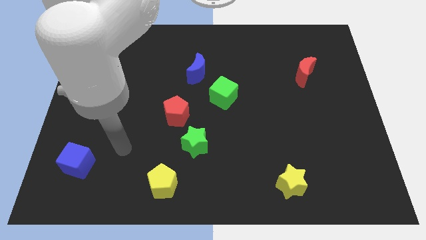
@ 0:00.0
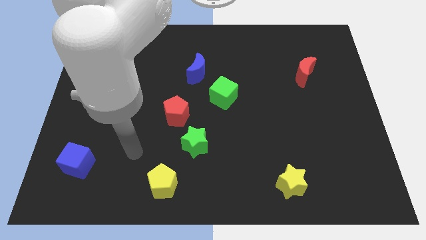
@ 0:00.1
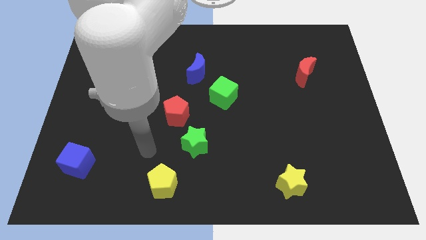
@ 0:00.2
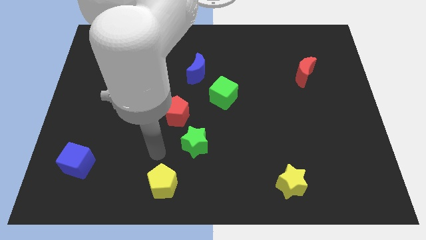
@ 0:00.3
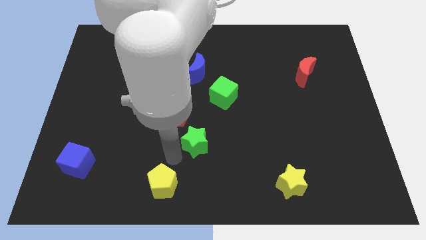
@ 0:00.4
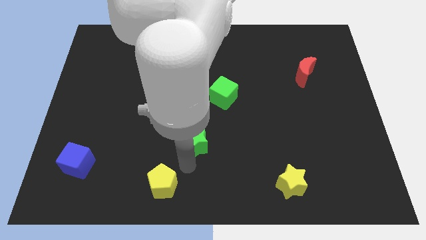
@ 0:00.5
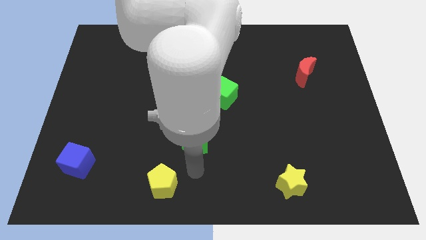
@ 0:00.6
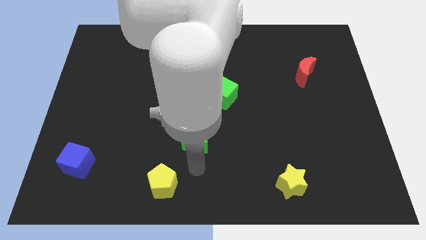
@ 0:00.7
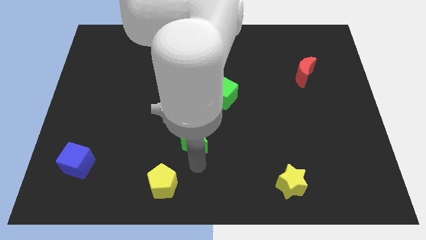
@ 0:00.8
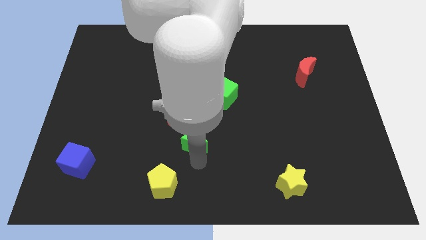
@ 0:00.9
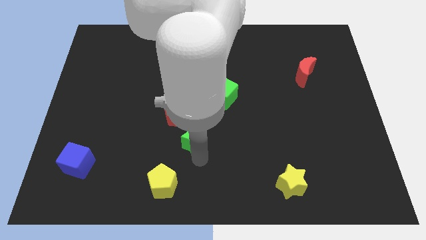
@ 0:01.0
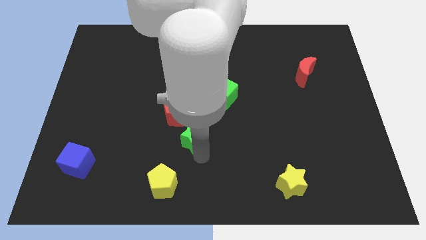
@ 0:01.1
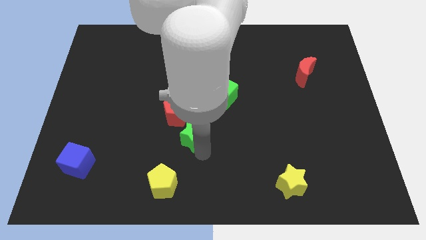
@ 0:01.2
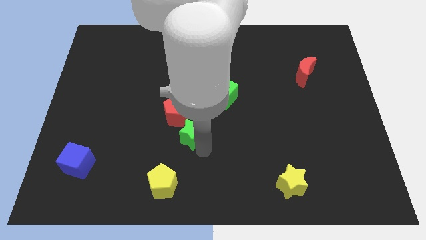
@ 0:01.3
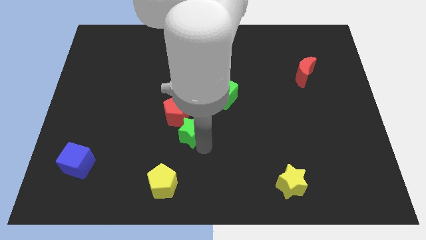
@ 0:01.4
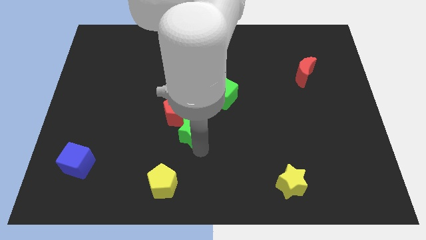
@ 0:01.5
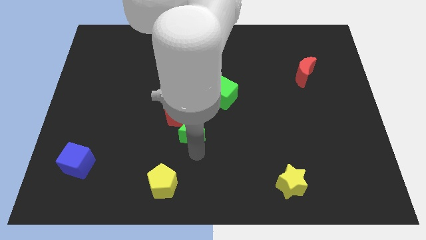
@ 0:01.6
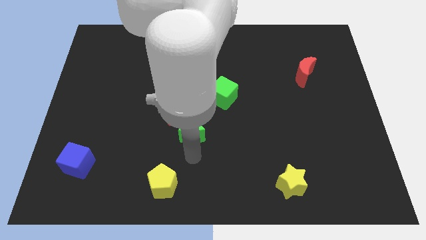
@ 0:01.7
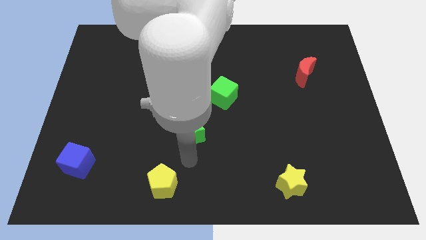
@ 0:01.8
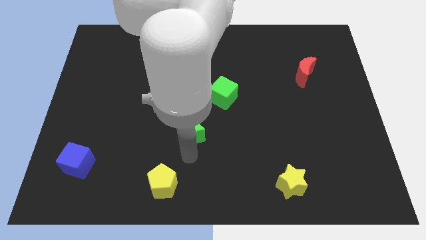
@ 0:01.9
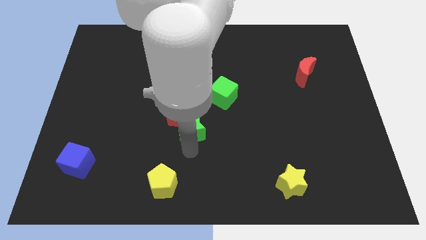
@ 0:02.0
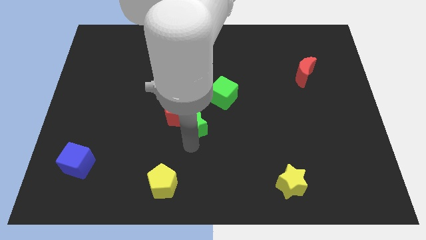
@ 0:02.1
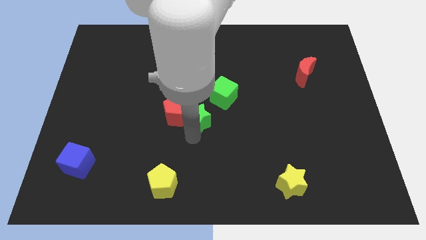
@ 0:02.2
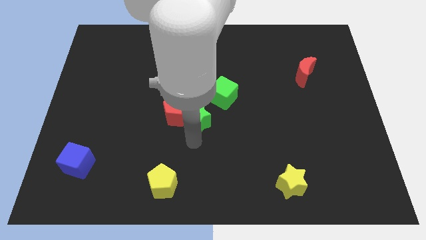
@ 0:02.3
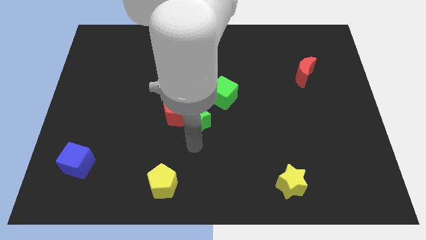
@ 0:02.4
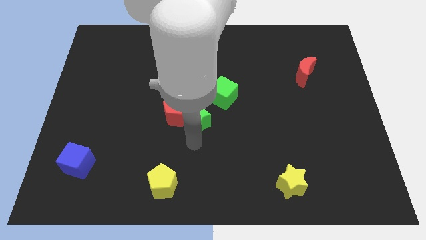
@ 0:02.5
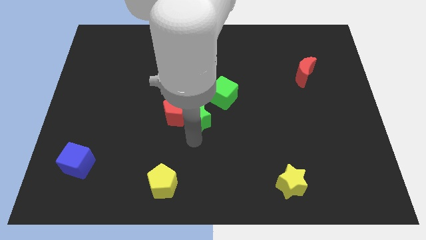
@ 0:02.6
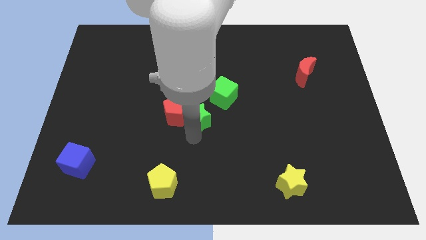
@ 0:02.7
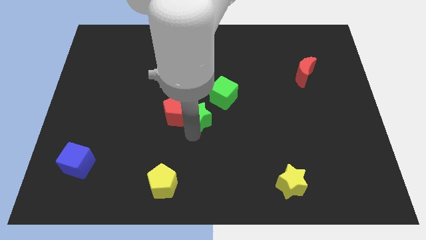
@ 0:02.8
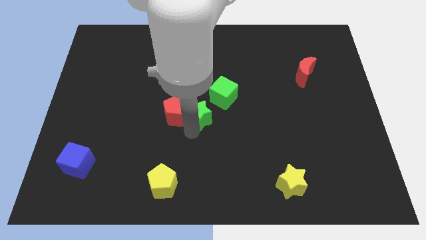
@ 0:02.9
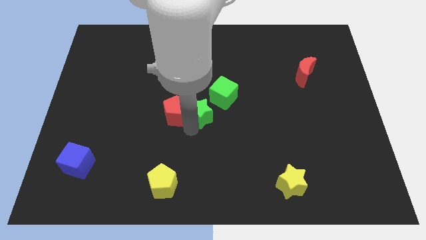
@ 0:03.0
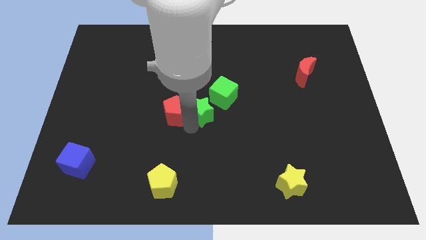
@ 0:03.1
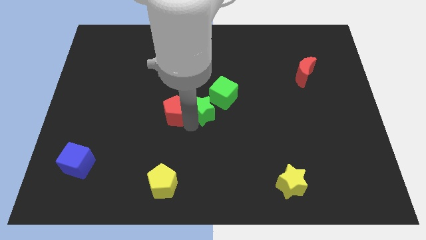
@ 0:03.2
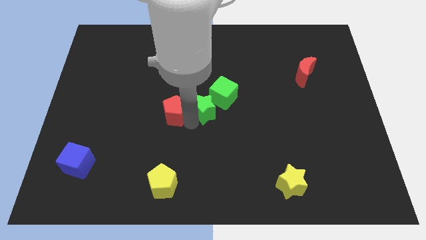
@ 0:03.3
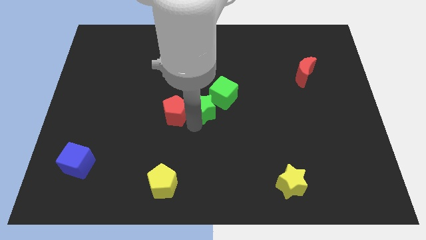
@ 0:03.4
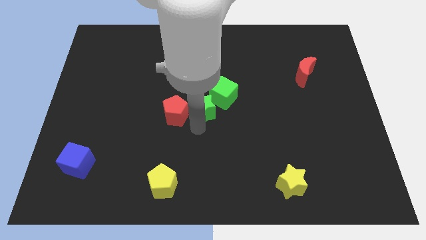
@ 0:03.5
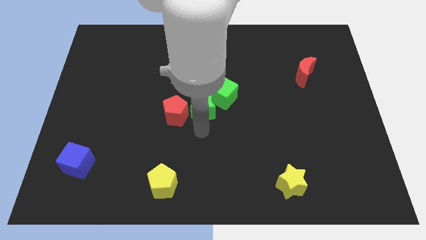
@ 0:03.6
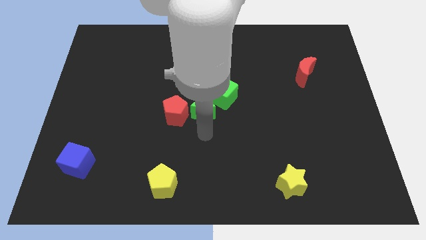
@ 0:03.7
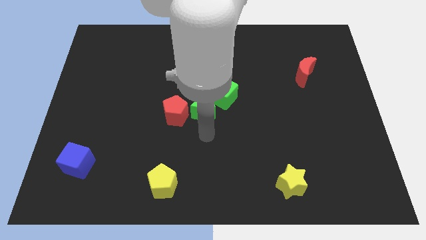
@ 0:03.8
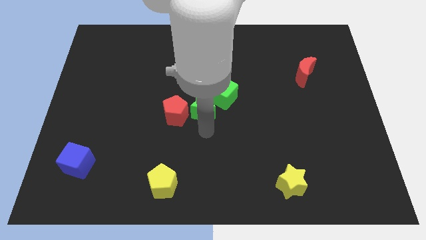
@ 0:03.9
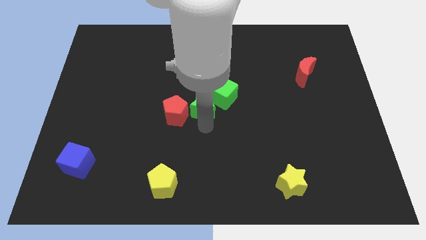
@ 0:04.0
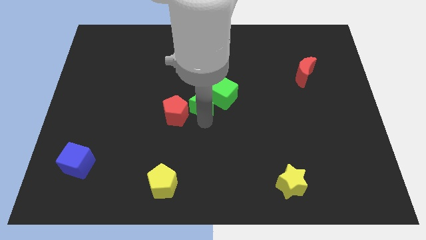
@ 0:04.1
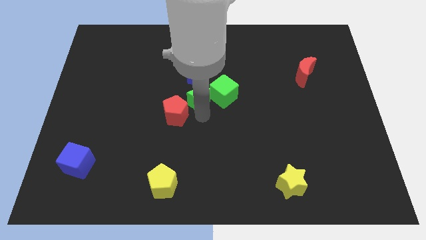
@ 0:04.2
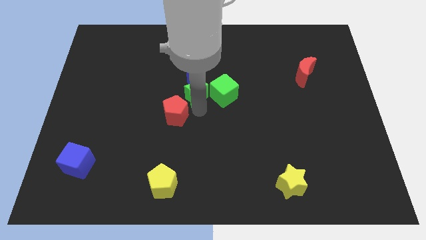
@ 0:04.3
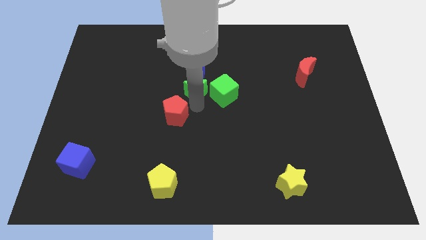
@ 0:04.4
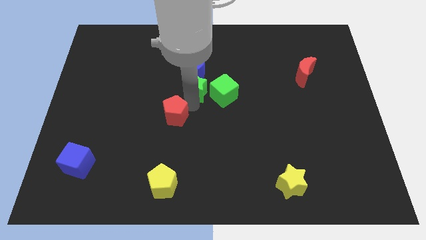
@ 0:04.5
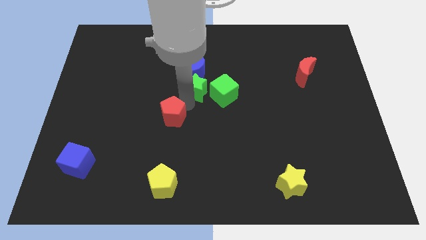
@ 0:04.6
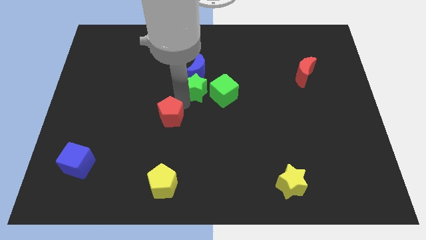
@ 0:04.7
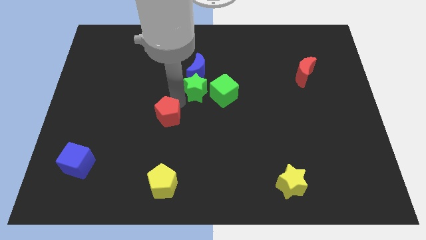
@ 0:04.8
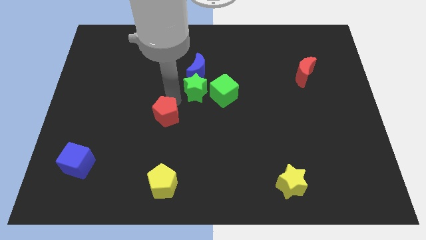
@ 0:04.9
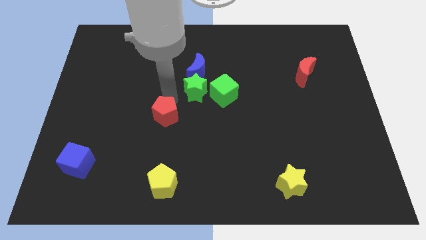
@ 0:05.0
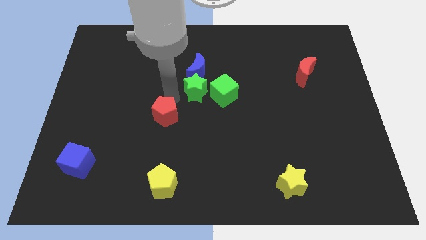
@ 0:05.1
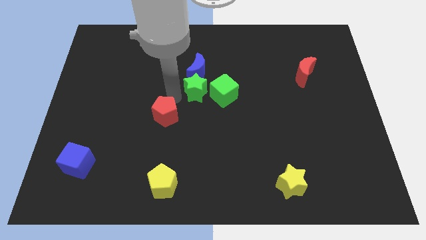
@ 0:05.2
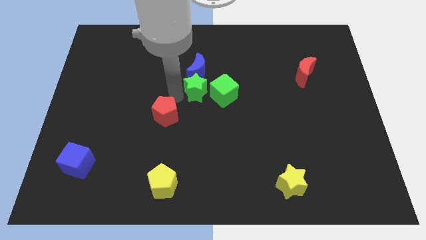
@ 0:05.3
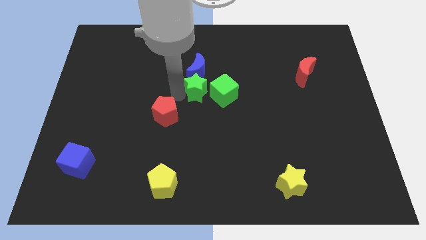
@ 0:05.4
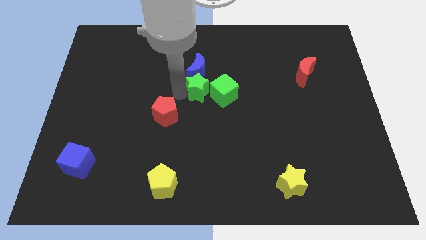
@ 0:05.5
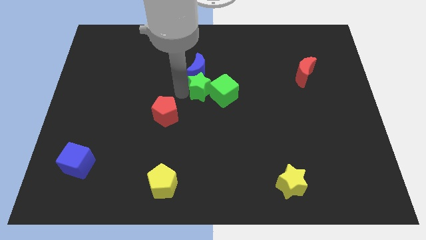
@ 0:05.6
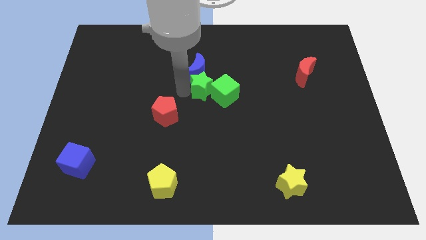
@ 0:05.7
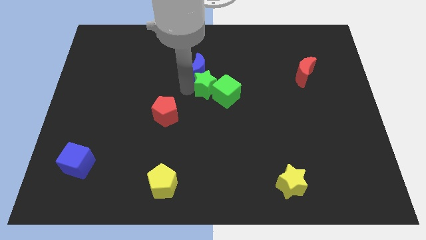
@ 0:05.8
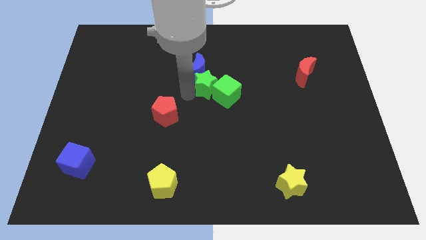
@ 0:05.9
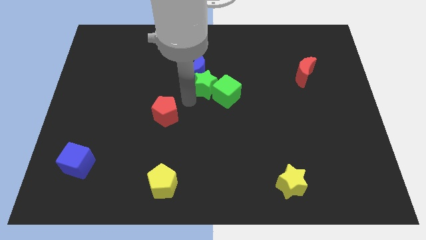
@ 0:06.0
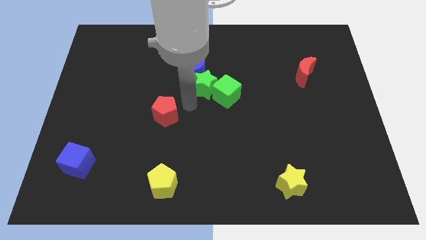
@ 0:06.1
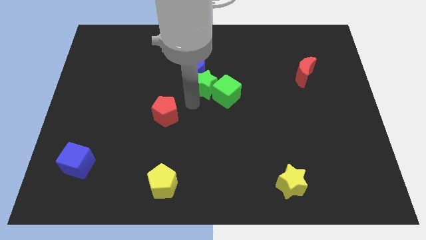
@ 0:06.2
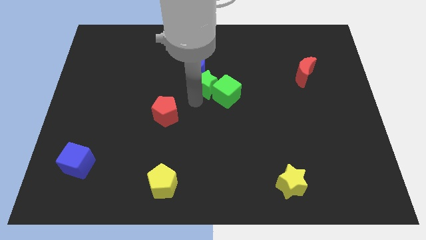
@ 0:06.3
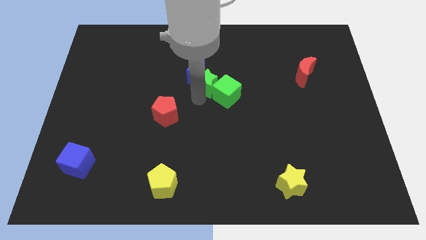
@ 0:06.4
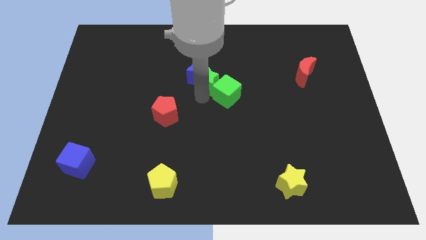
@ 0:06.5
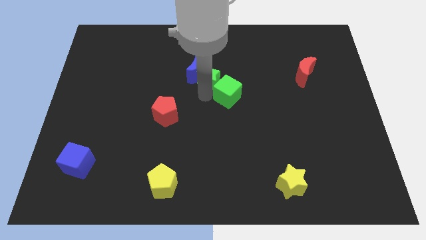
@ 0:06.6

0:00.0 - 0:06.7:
slide the green star to the top side of the green cube

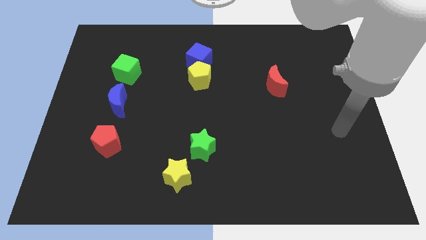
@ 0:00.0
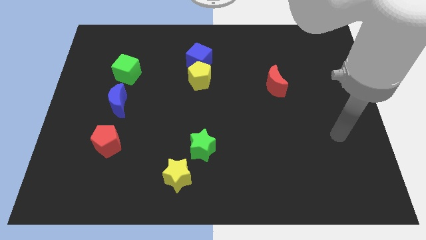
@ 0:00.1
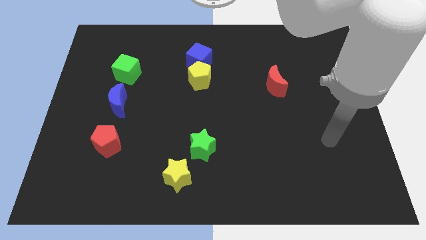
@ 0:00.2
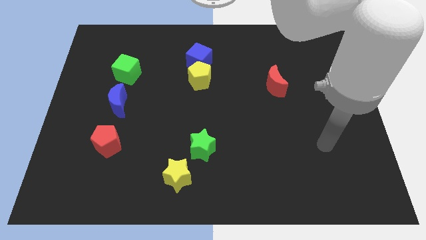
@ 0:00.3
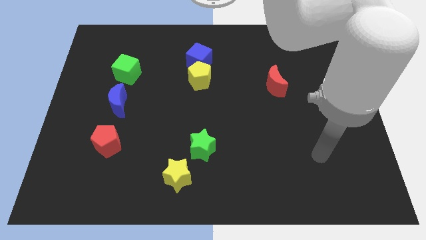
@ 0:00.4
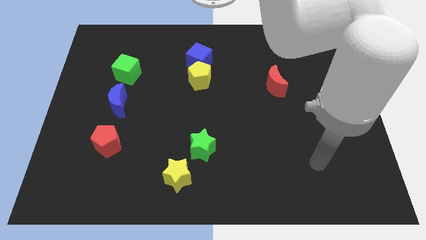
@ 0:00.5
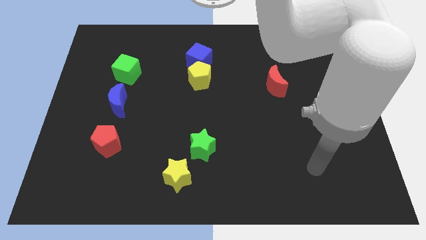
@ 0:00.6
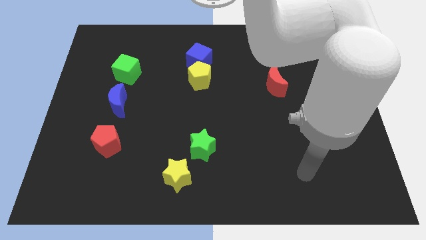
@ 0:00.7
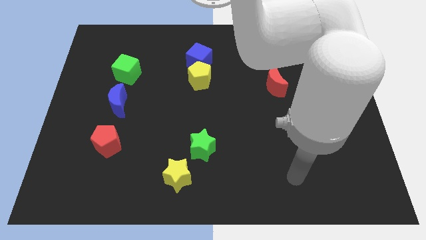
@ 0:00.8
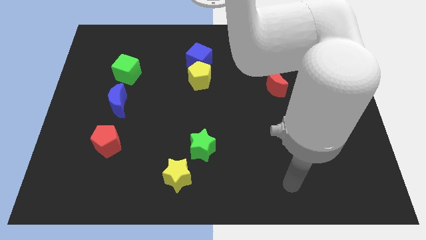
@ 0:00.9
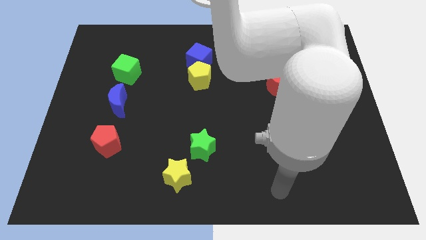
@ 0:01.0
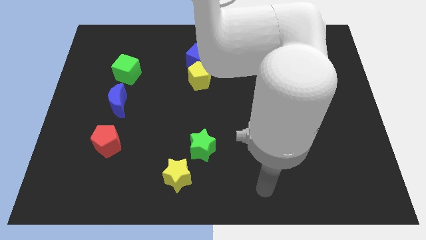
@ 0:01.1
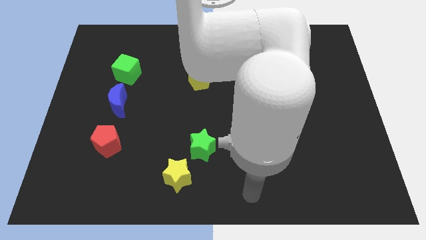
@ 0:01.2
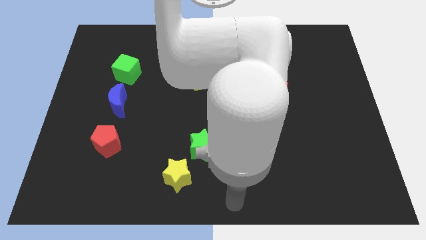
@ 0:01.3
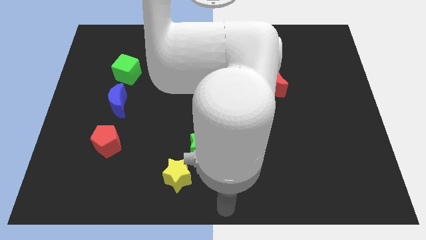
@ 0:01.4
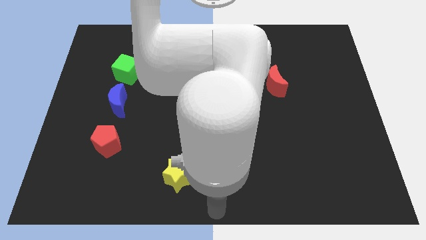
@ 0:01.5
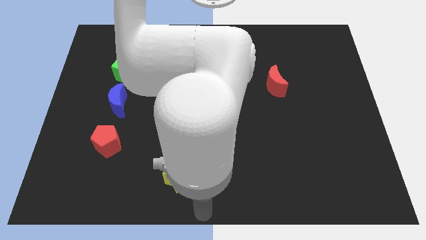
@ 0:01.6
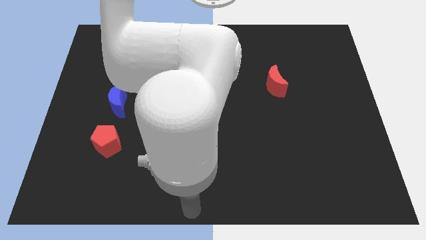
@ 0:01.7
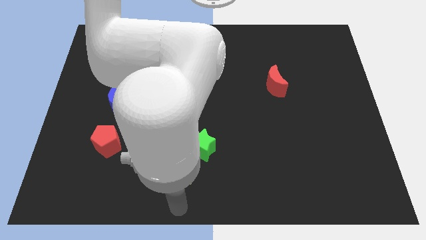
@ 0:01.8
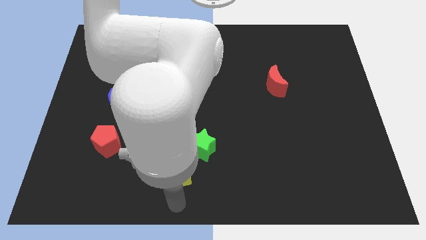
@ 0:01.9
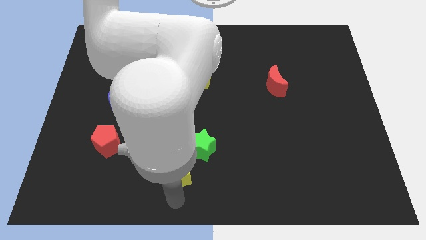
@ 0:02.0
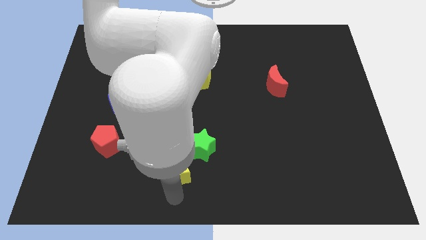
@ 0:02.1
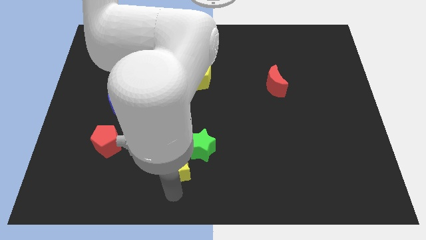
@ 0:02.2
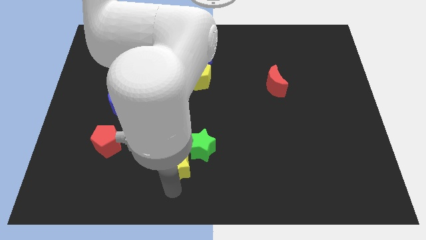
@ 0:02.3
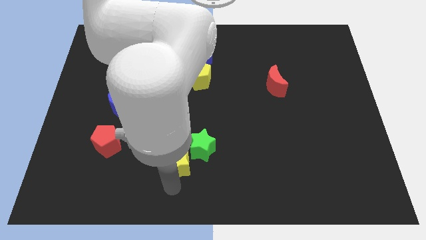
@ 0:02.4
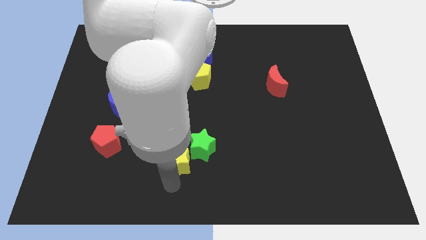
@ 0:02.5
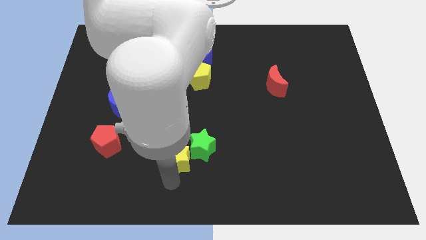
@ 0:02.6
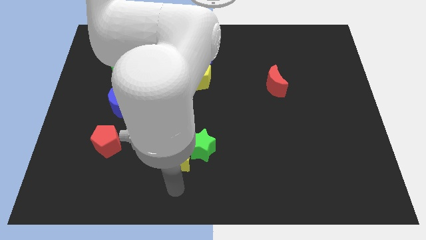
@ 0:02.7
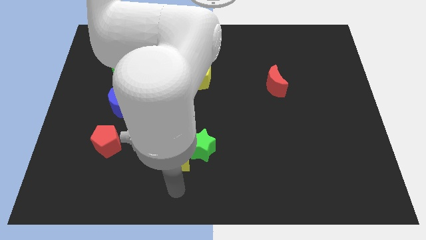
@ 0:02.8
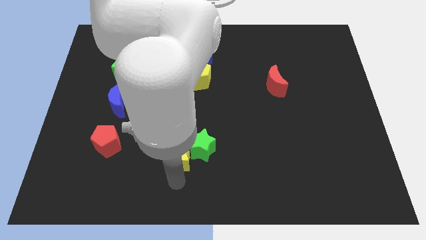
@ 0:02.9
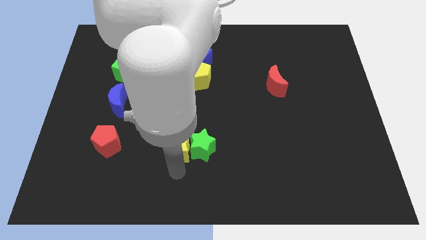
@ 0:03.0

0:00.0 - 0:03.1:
put the yellow star diagonally up and to the left of the green star
